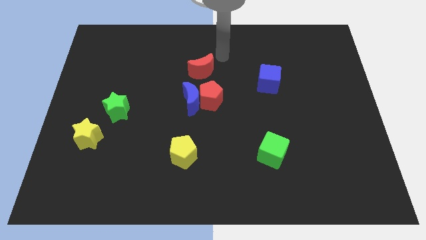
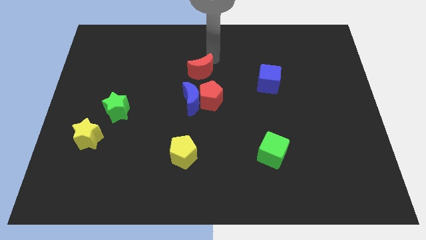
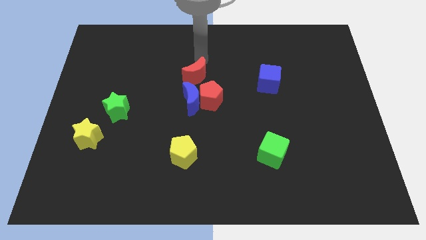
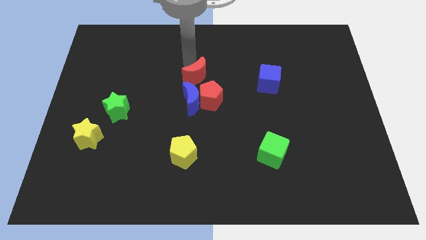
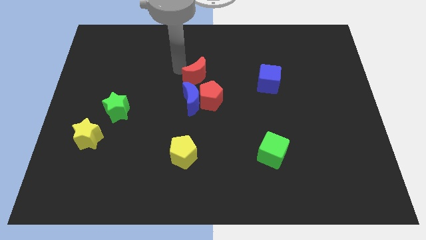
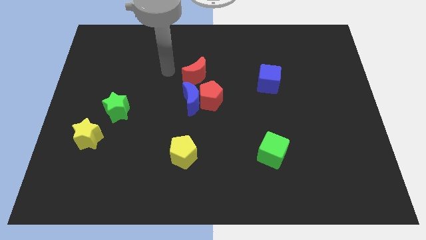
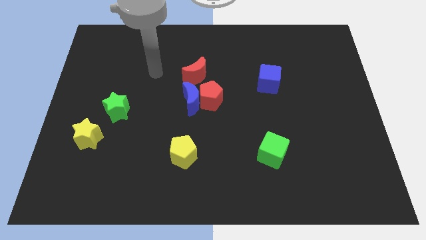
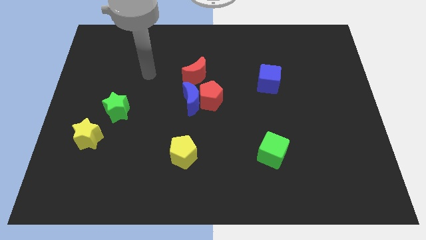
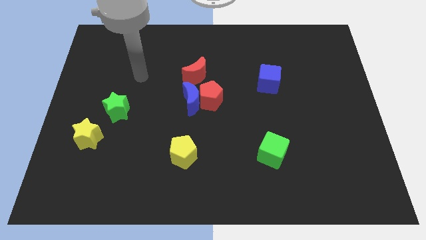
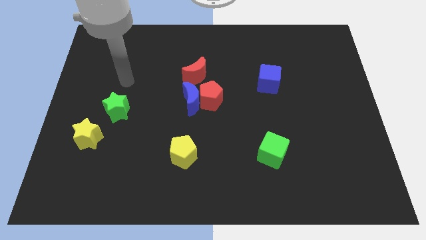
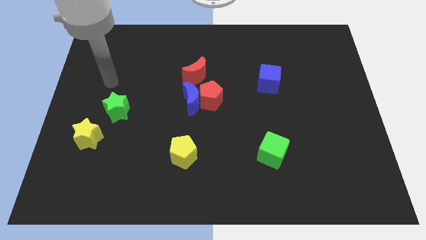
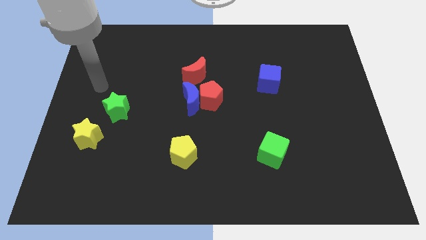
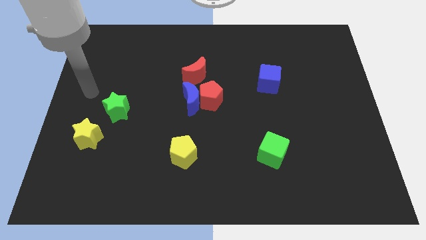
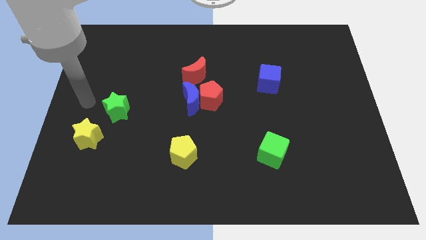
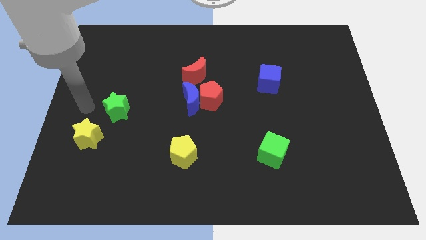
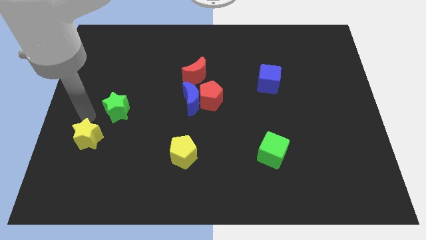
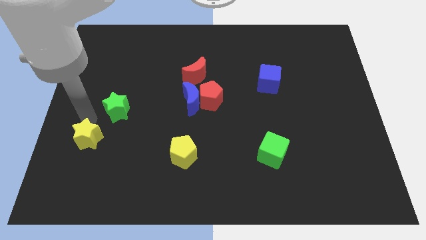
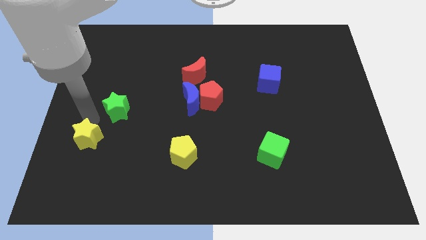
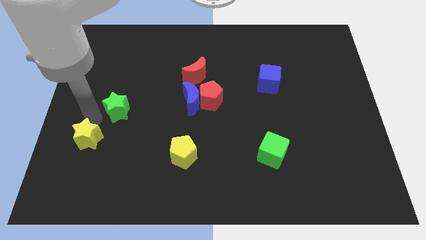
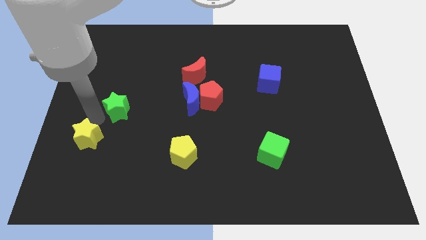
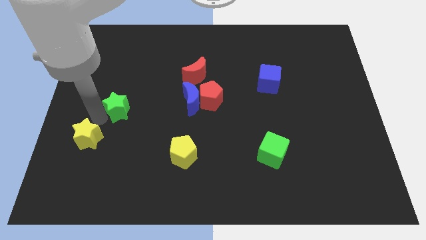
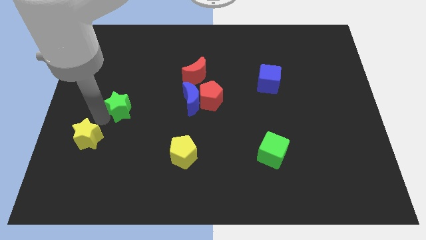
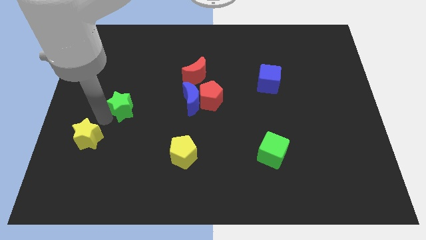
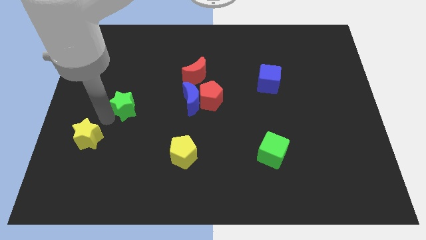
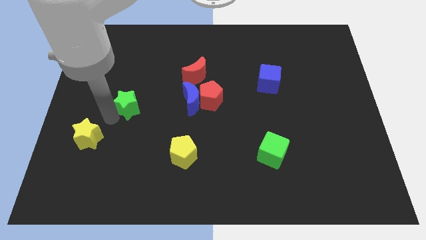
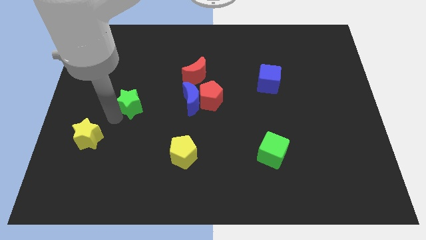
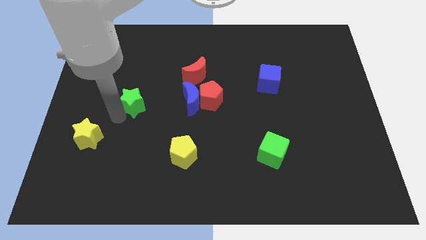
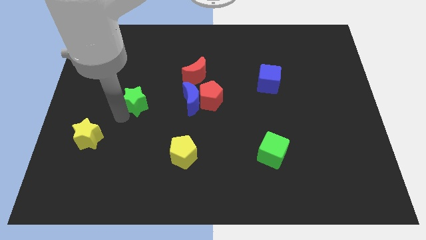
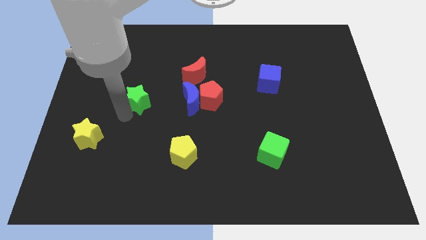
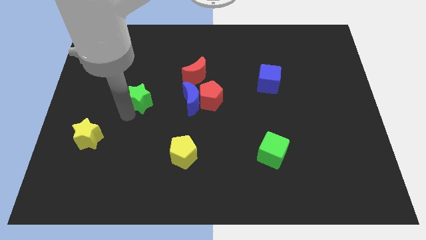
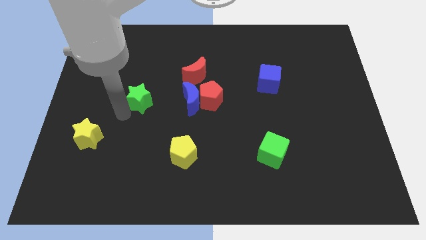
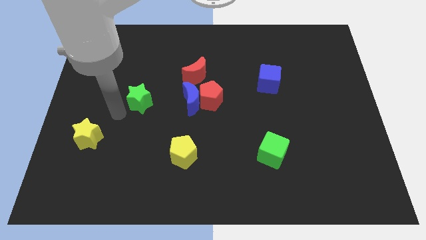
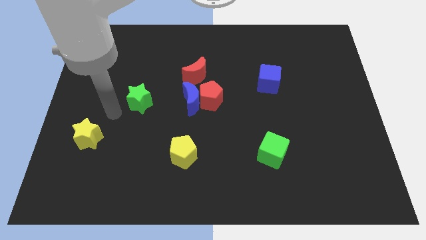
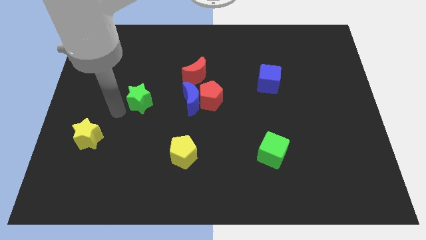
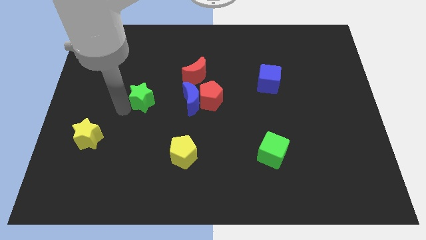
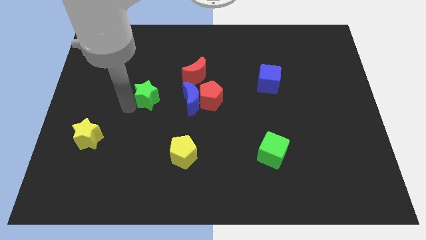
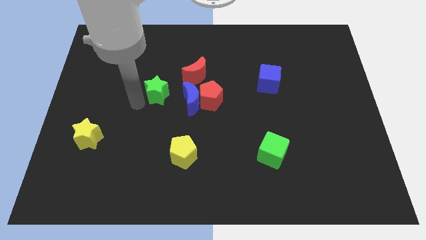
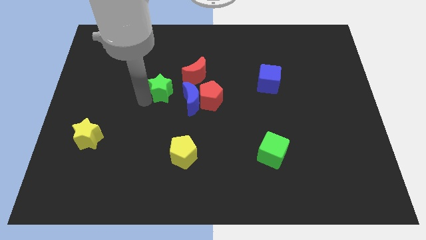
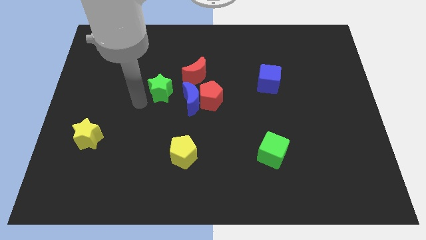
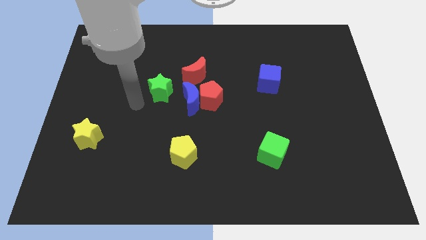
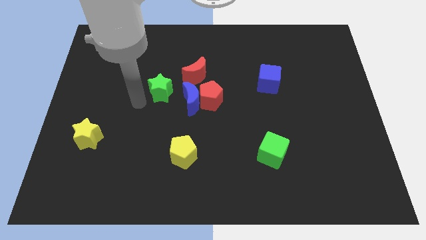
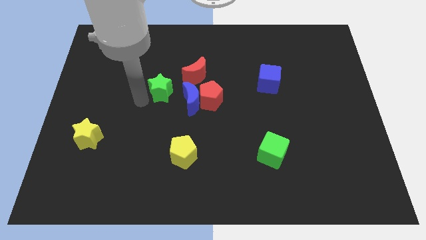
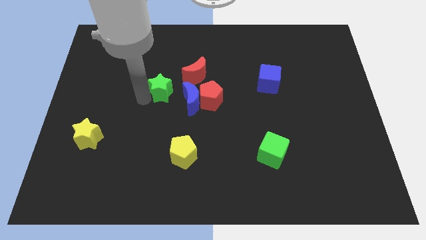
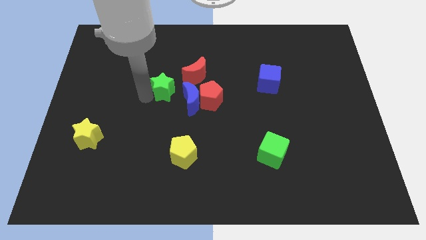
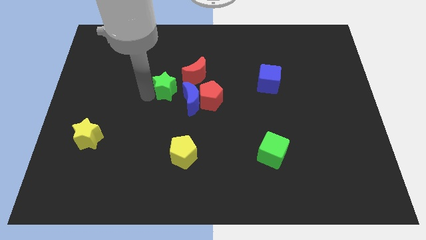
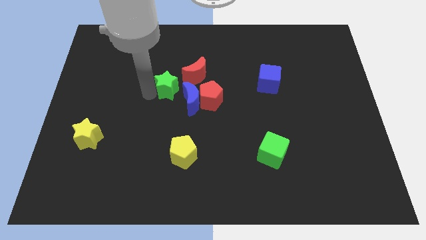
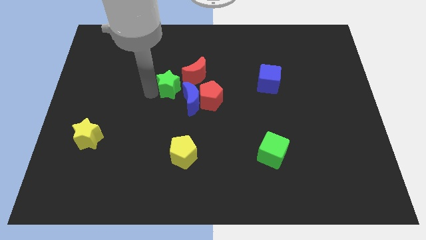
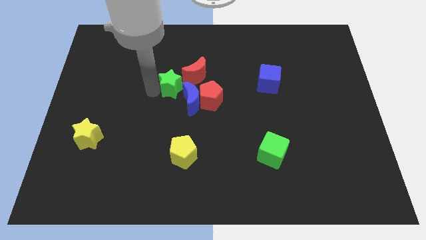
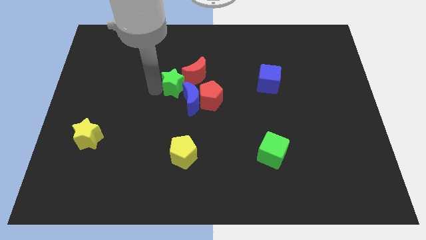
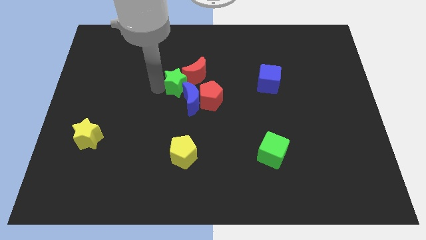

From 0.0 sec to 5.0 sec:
put the green star close to the red moon

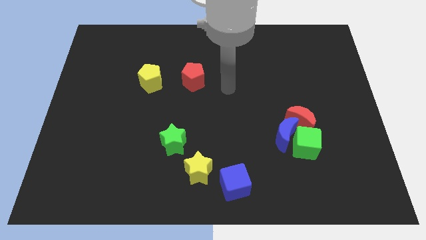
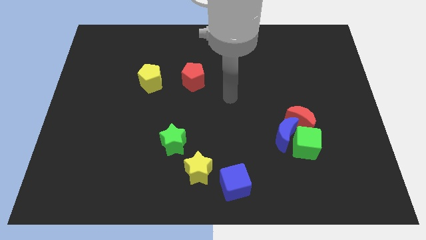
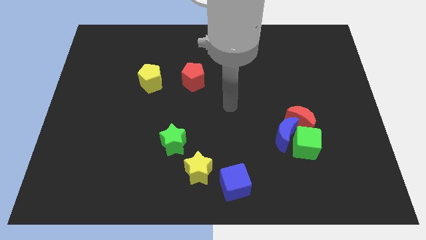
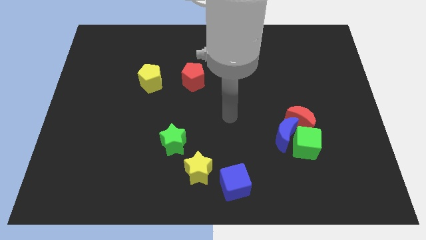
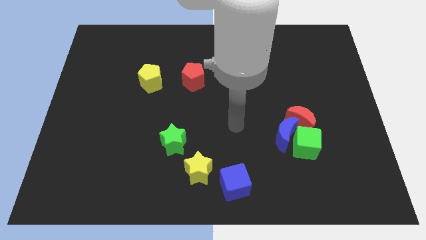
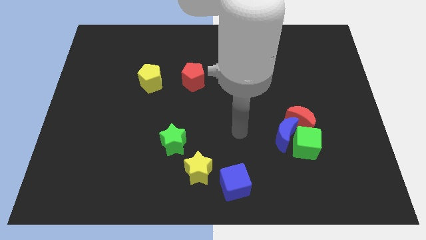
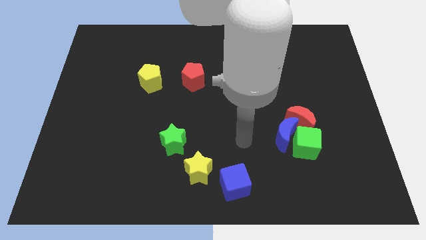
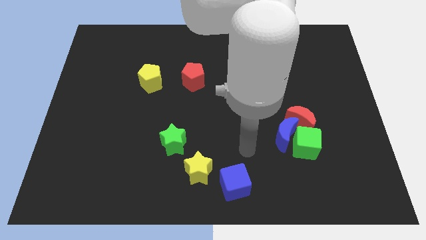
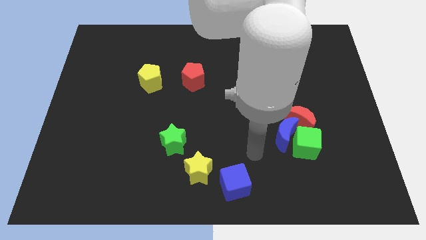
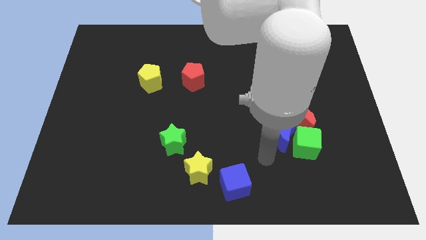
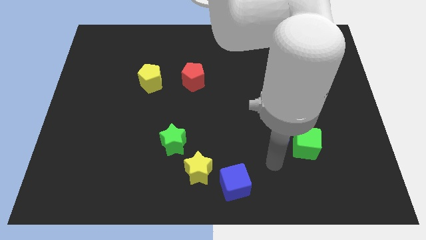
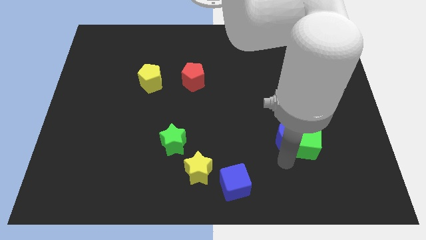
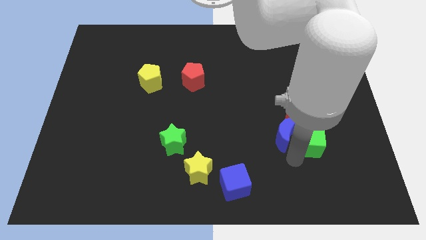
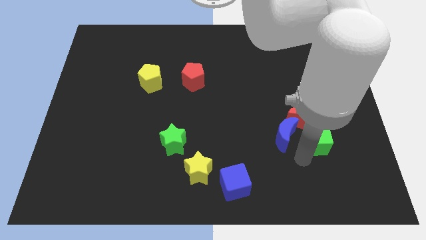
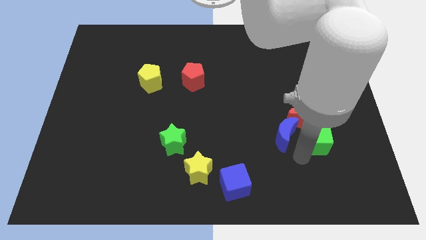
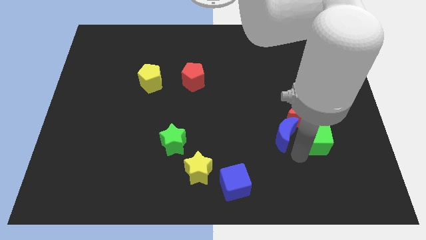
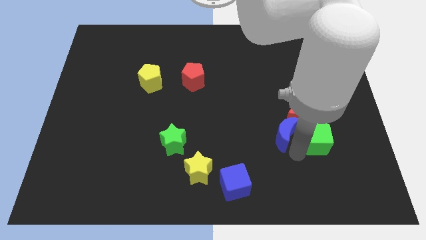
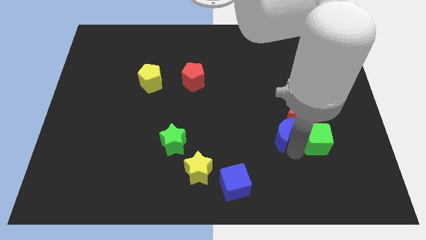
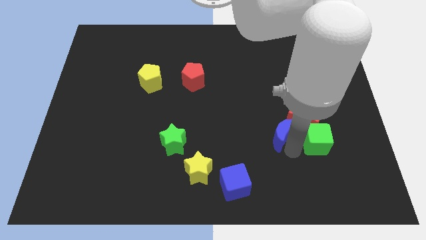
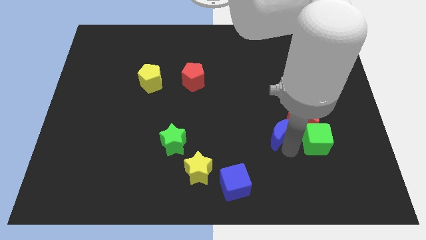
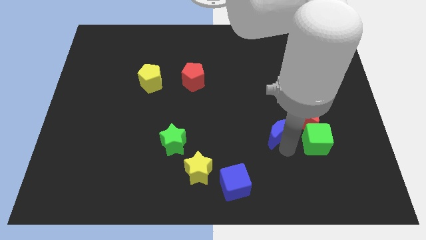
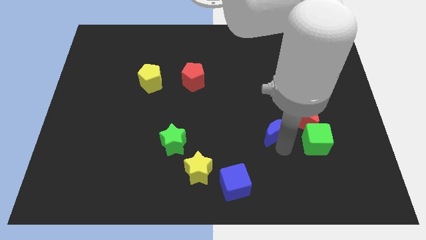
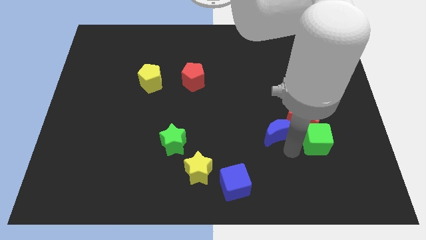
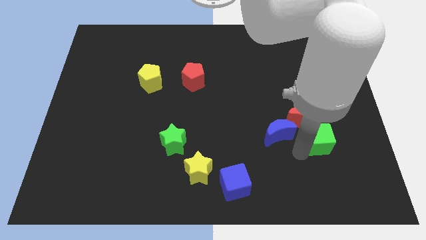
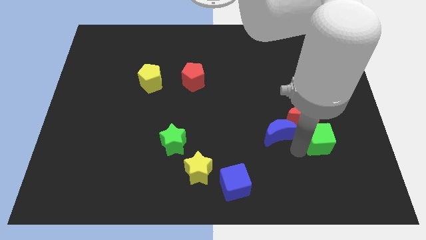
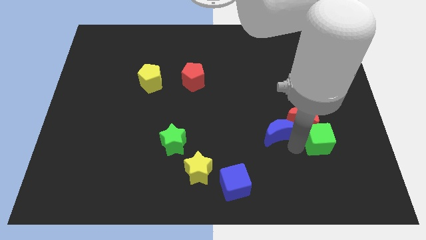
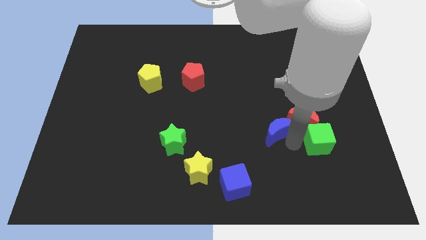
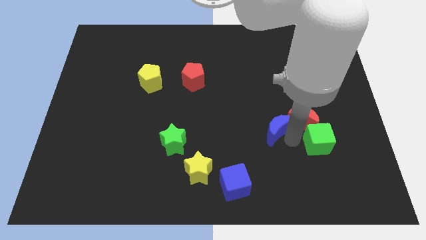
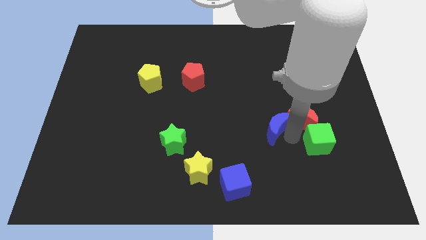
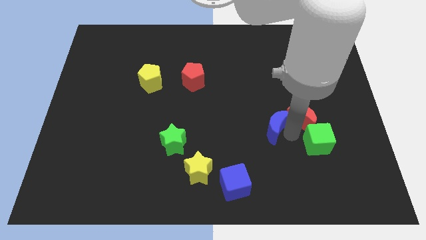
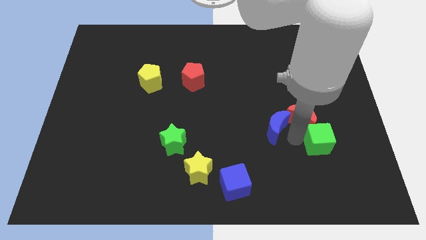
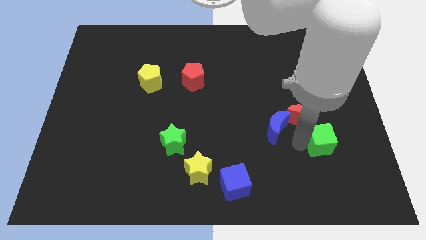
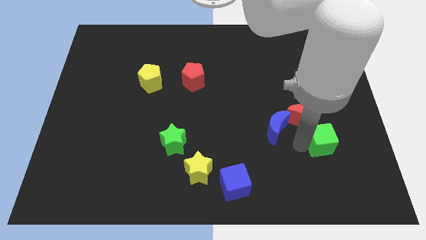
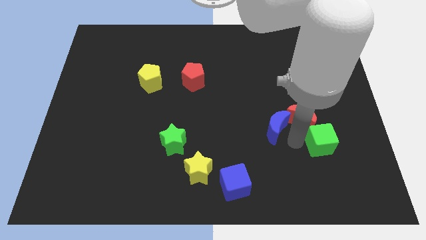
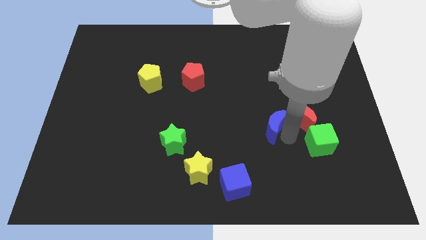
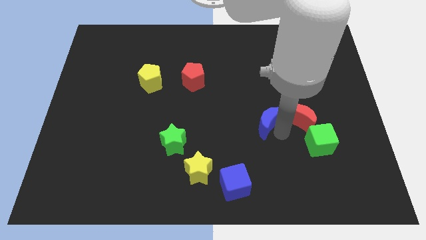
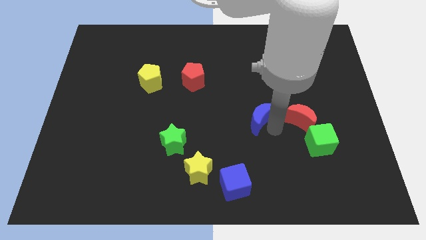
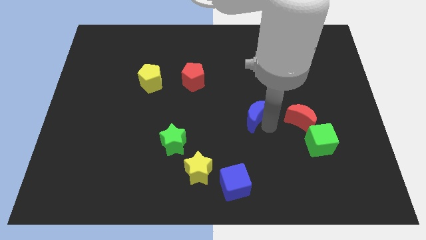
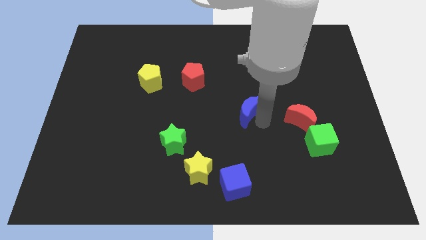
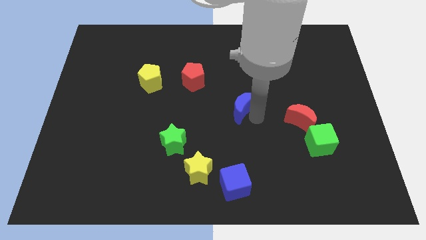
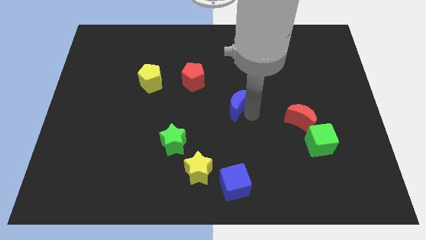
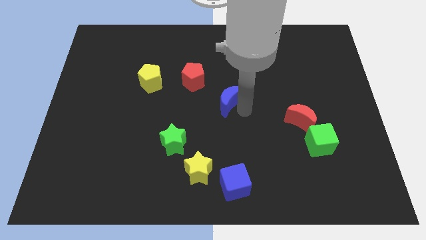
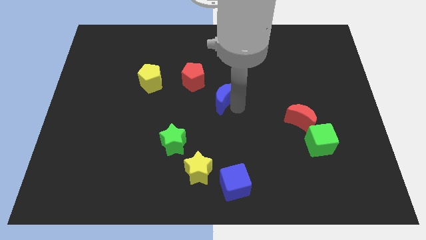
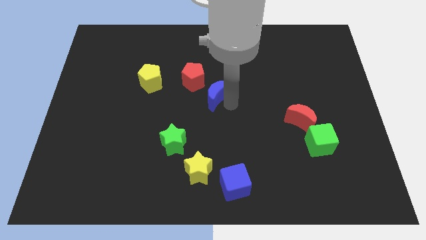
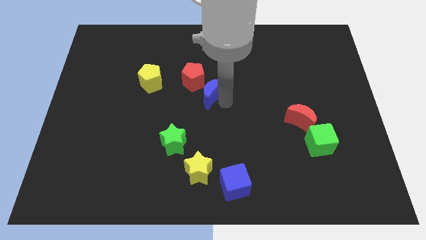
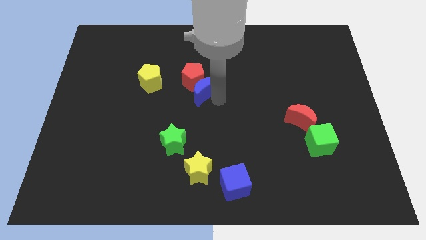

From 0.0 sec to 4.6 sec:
slide the blue moon close to the red pentagon
